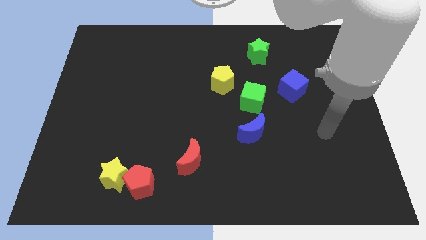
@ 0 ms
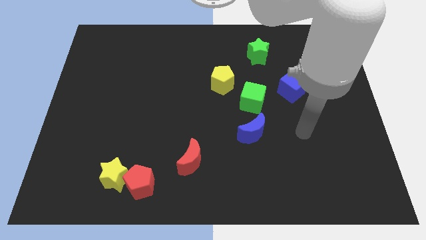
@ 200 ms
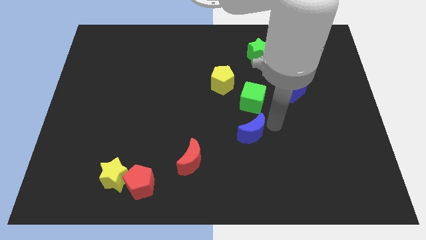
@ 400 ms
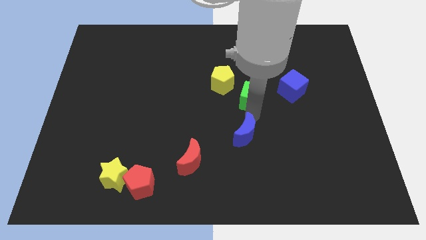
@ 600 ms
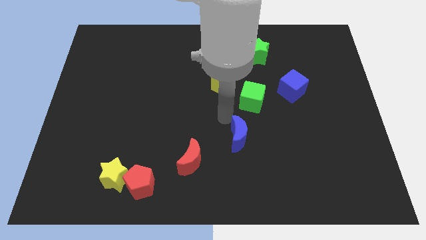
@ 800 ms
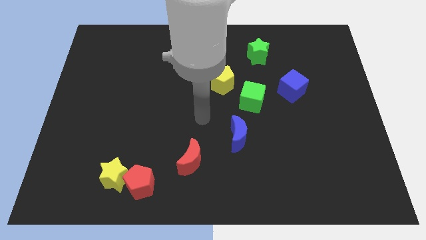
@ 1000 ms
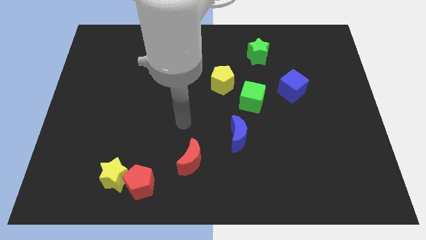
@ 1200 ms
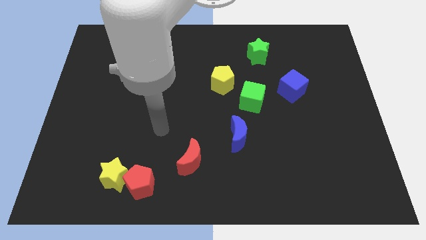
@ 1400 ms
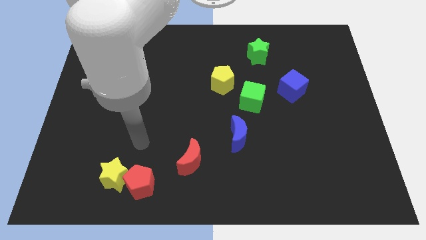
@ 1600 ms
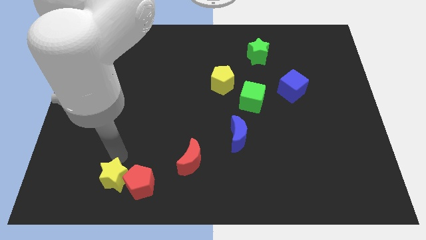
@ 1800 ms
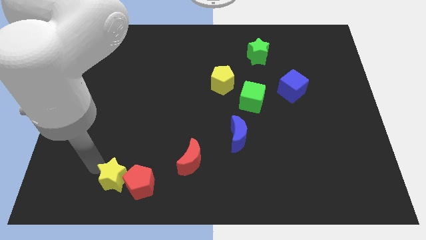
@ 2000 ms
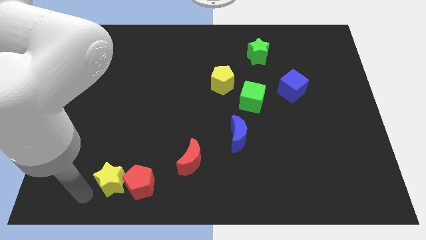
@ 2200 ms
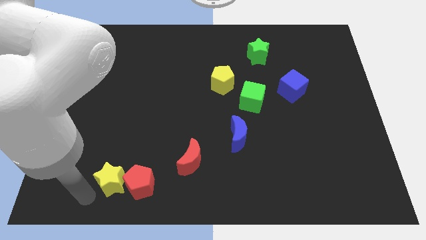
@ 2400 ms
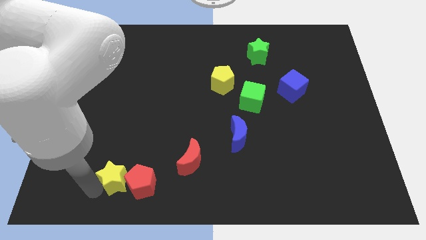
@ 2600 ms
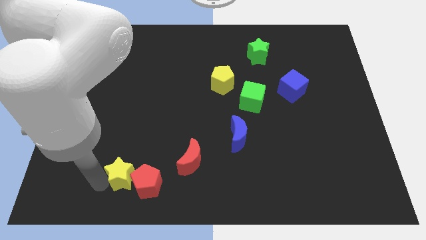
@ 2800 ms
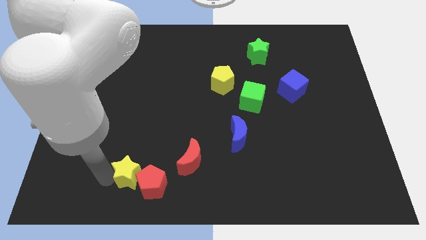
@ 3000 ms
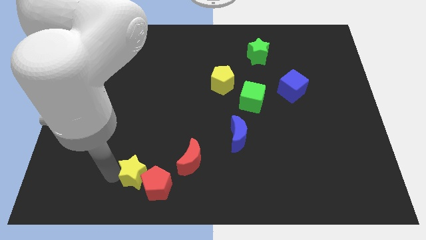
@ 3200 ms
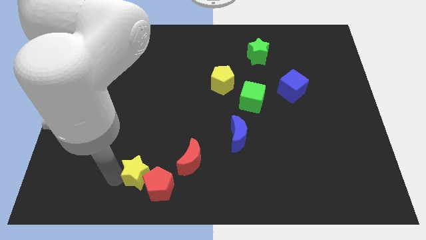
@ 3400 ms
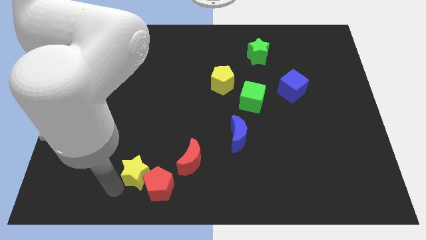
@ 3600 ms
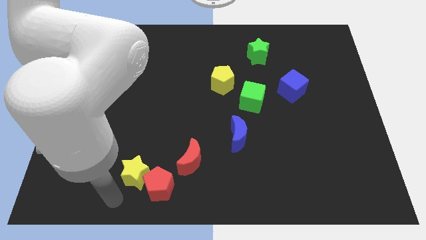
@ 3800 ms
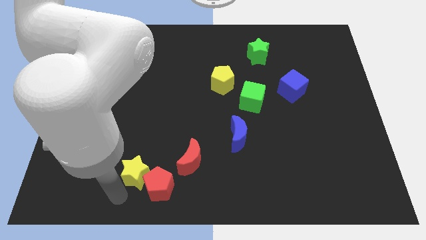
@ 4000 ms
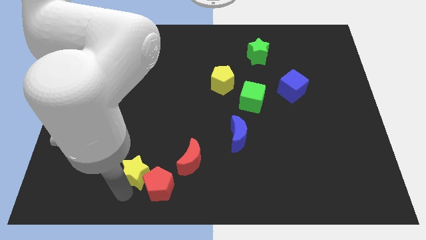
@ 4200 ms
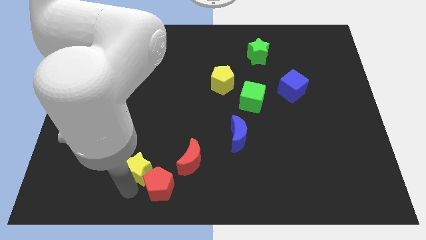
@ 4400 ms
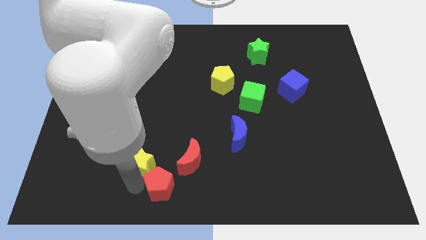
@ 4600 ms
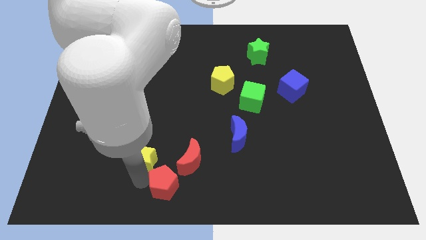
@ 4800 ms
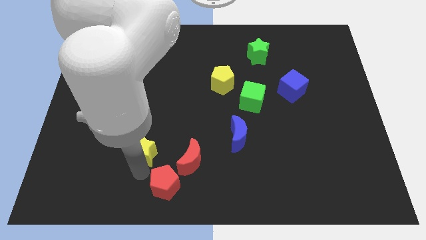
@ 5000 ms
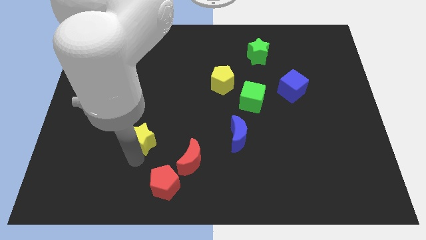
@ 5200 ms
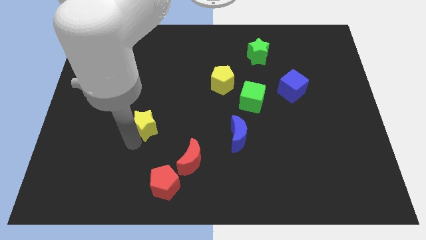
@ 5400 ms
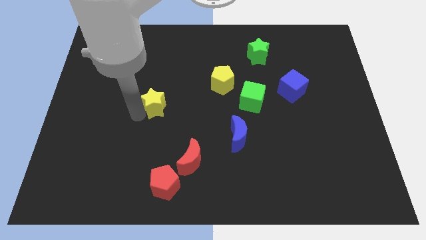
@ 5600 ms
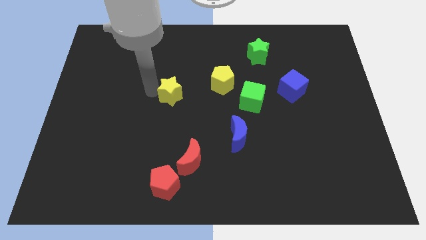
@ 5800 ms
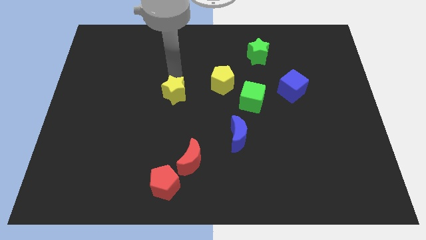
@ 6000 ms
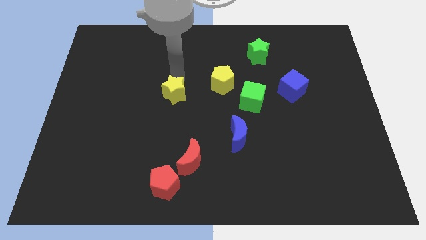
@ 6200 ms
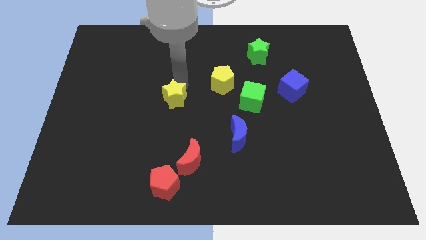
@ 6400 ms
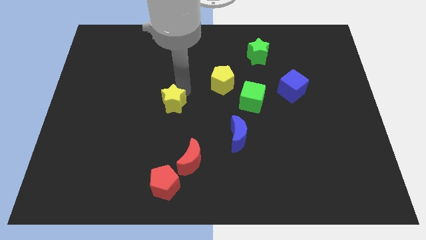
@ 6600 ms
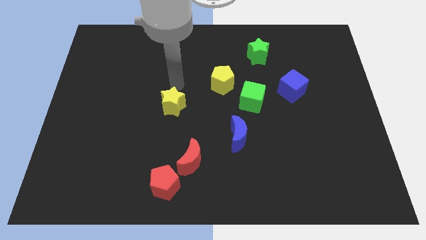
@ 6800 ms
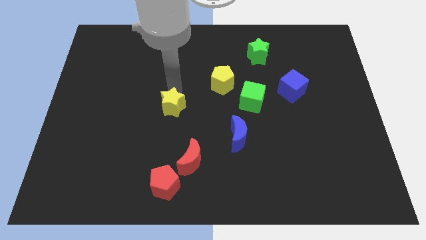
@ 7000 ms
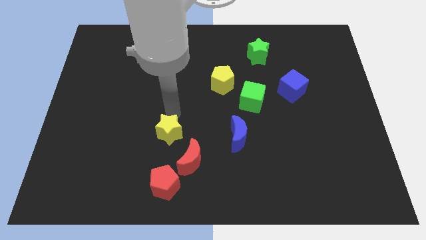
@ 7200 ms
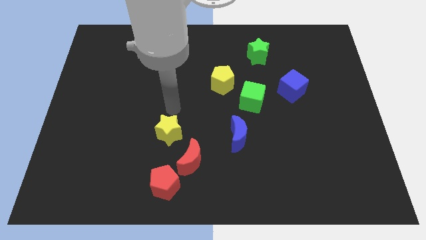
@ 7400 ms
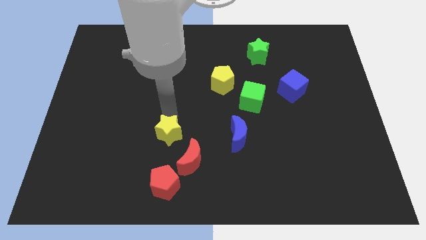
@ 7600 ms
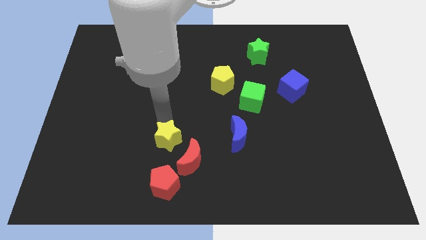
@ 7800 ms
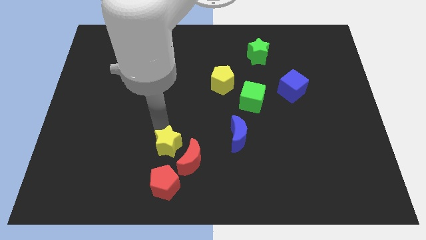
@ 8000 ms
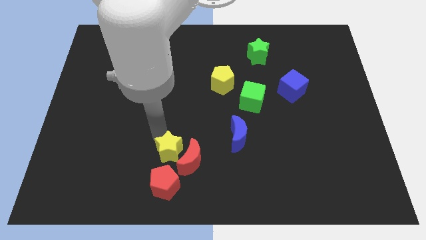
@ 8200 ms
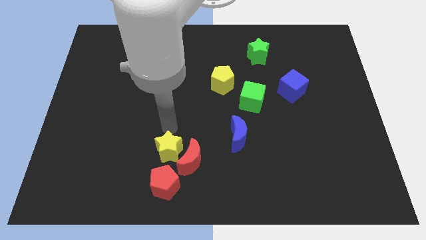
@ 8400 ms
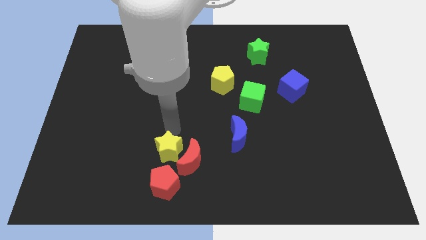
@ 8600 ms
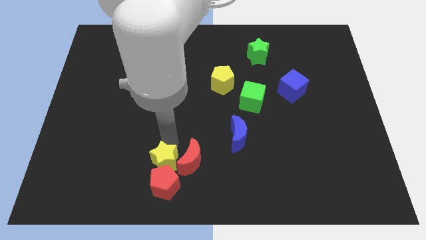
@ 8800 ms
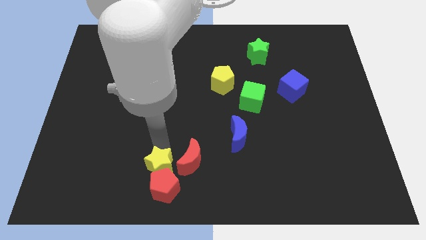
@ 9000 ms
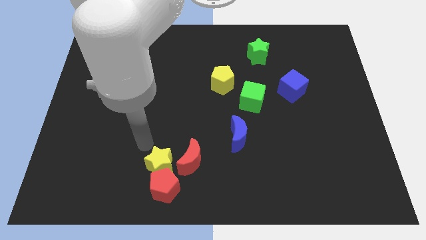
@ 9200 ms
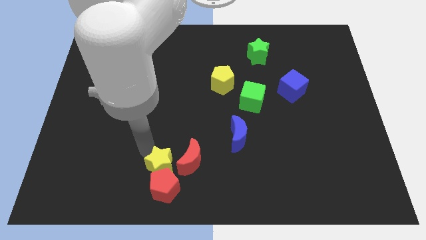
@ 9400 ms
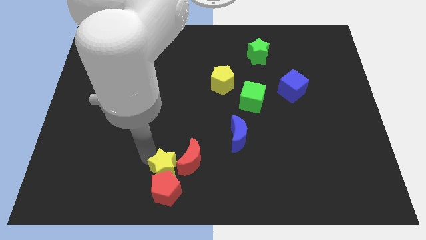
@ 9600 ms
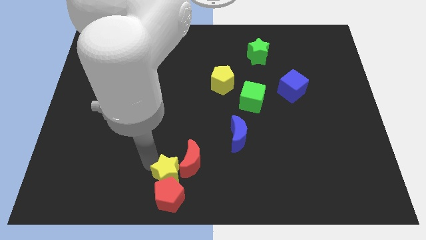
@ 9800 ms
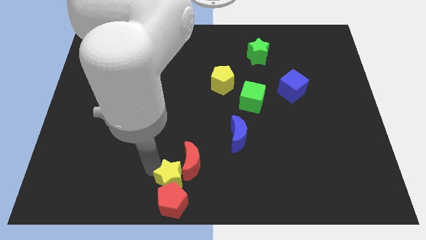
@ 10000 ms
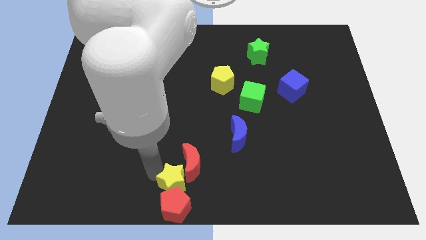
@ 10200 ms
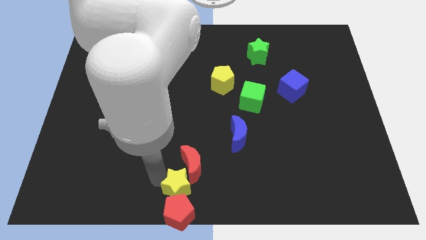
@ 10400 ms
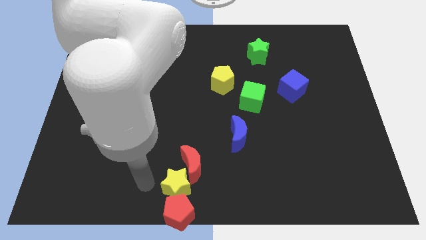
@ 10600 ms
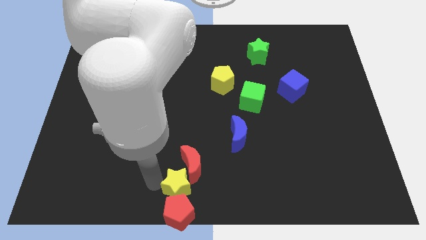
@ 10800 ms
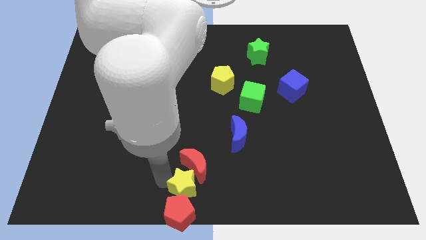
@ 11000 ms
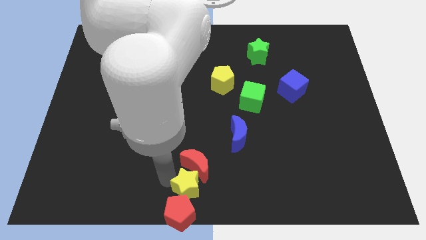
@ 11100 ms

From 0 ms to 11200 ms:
put the yellow star to the bottom right of the red moon
